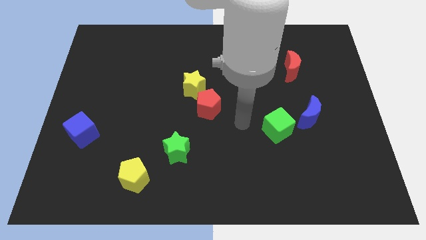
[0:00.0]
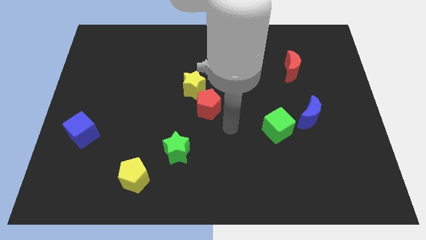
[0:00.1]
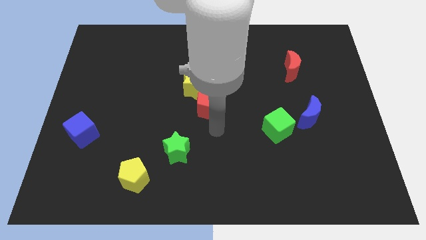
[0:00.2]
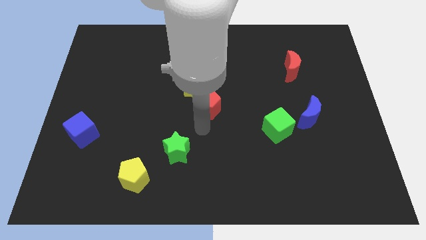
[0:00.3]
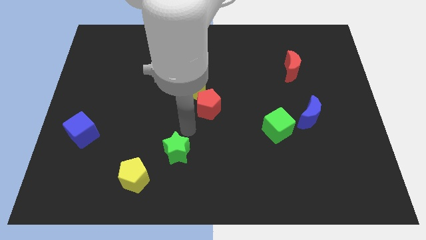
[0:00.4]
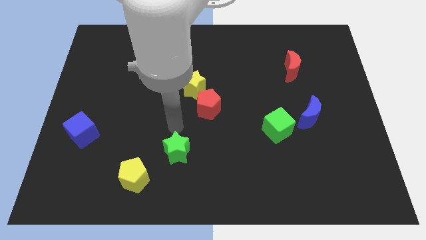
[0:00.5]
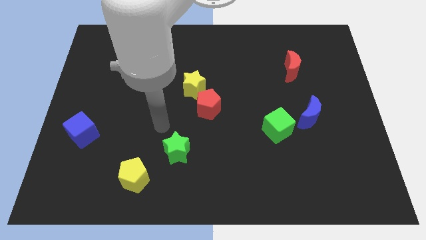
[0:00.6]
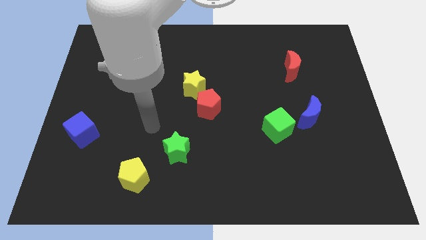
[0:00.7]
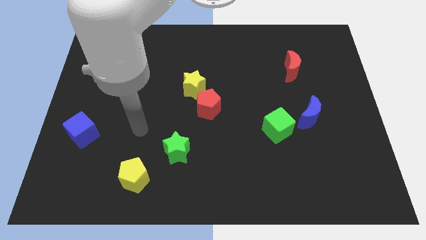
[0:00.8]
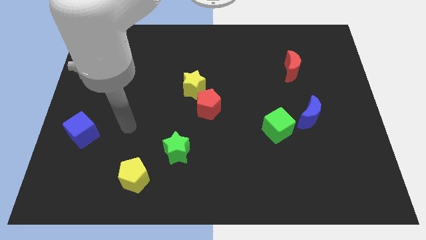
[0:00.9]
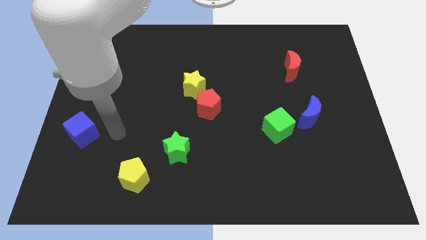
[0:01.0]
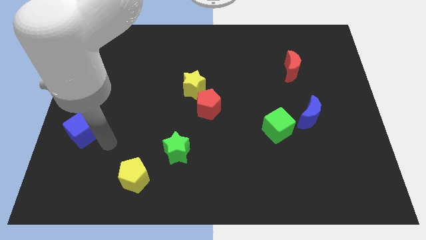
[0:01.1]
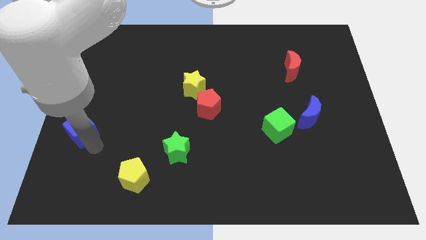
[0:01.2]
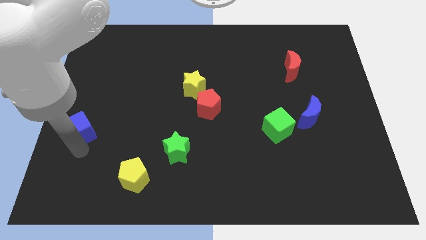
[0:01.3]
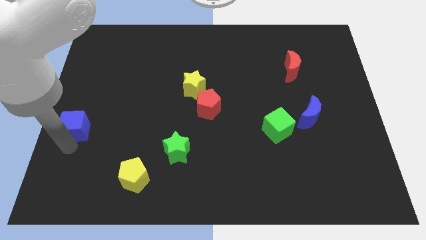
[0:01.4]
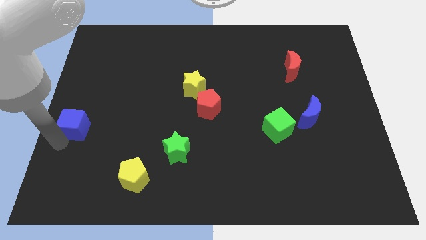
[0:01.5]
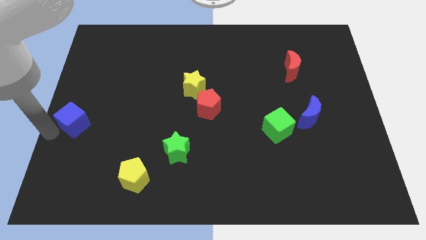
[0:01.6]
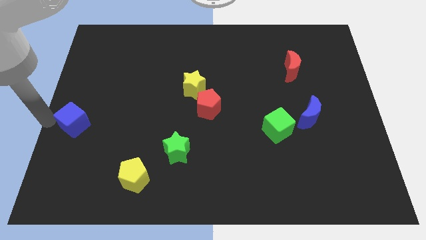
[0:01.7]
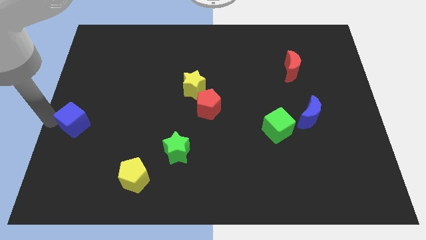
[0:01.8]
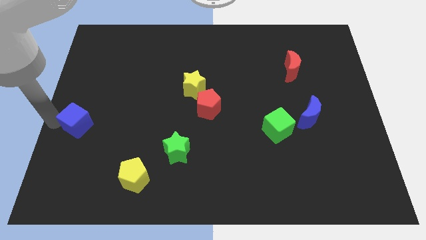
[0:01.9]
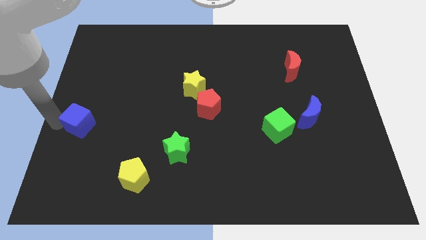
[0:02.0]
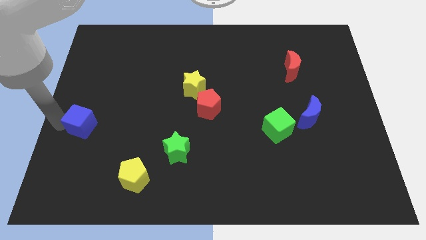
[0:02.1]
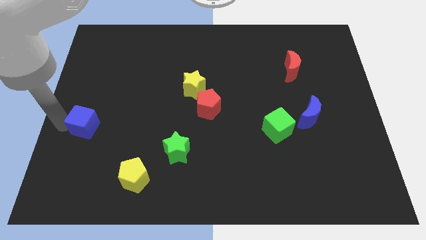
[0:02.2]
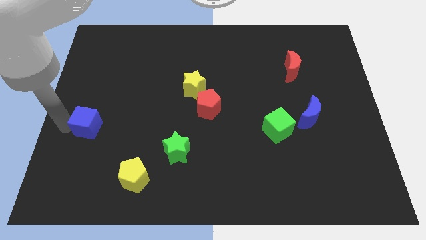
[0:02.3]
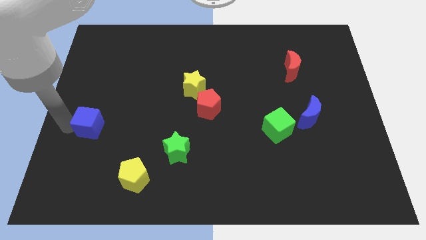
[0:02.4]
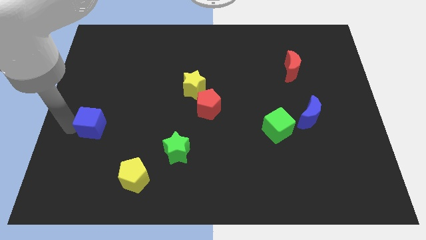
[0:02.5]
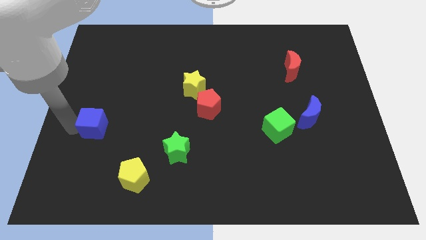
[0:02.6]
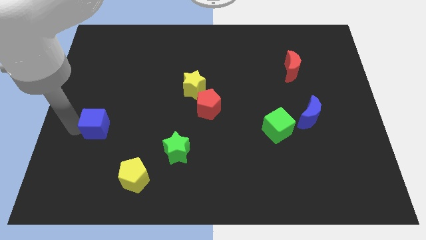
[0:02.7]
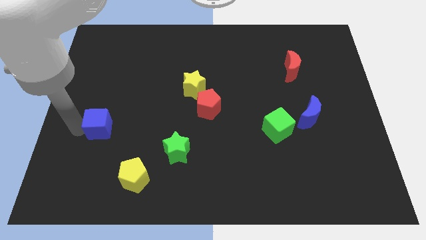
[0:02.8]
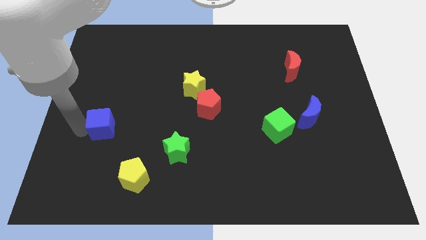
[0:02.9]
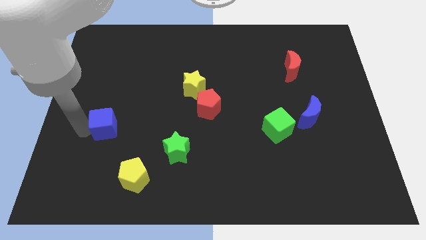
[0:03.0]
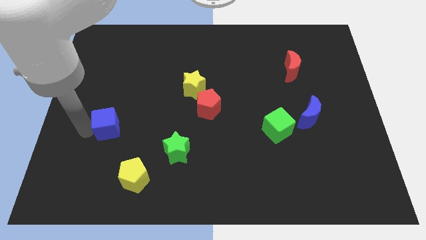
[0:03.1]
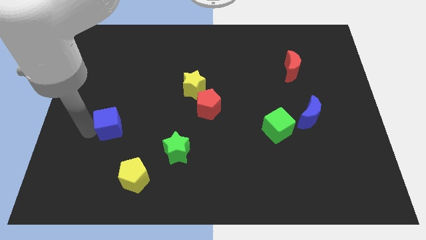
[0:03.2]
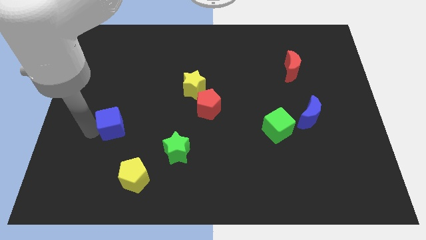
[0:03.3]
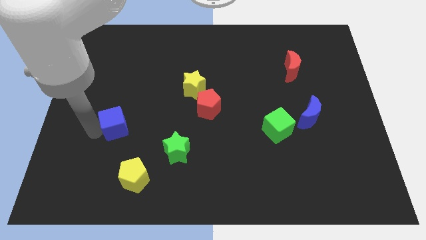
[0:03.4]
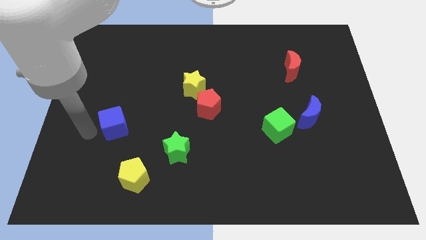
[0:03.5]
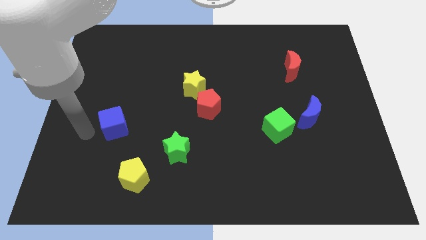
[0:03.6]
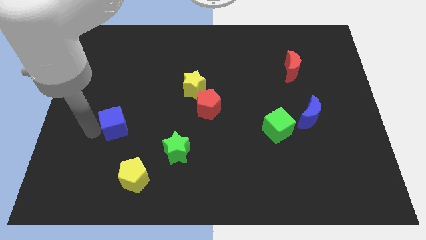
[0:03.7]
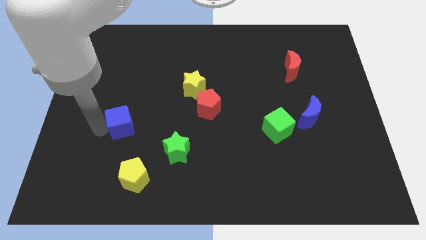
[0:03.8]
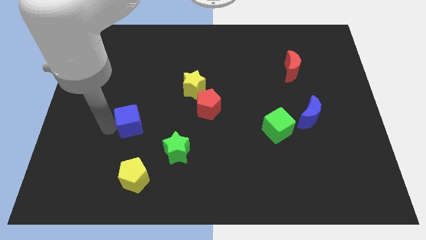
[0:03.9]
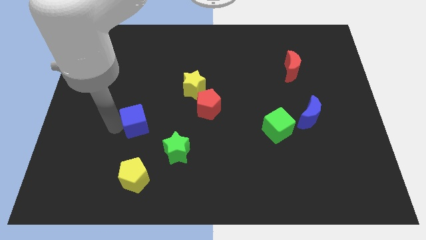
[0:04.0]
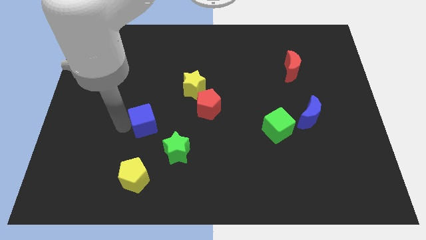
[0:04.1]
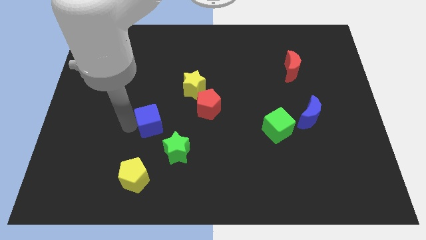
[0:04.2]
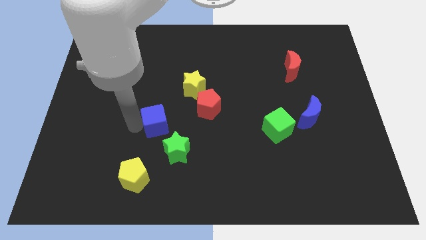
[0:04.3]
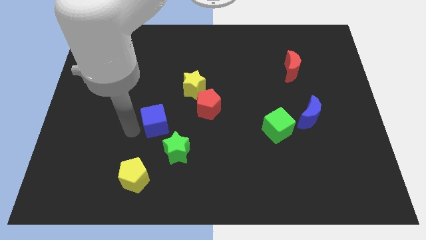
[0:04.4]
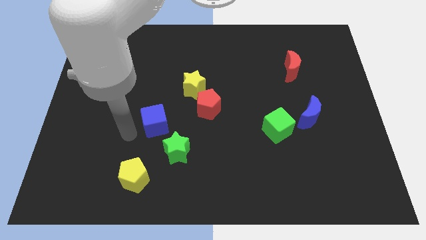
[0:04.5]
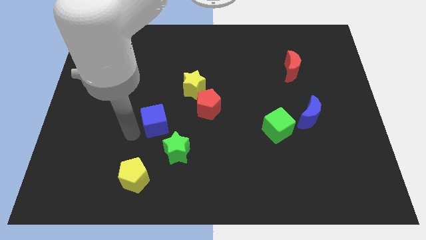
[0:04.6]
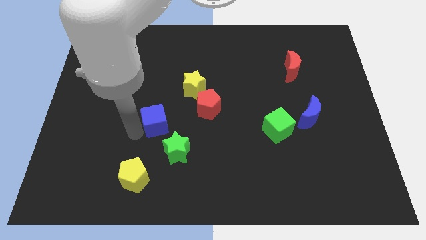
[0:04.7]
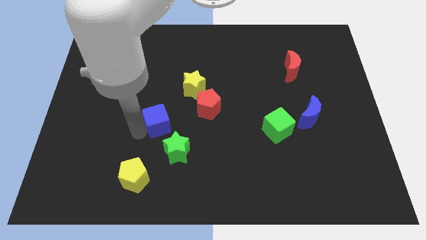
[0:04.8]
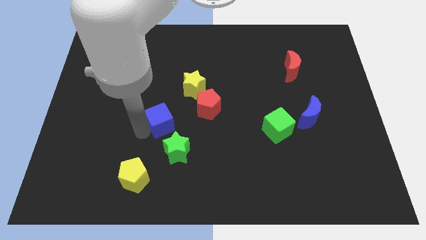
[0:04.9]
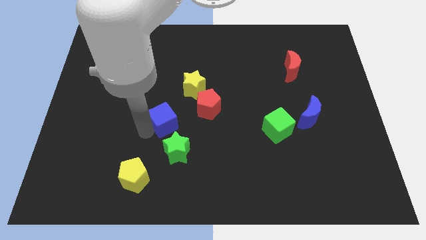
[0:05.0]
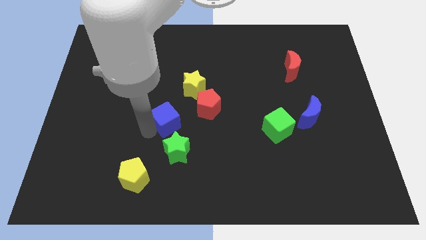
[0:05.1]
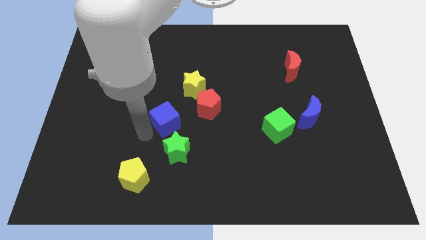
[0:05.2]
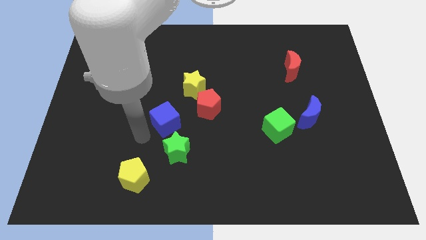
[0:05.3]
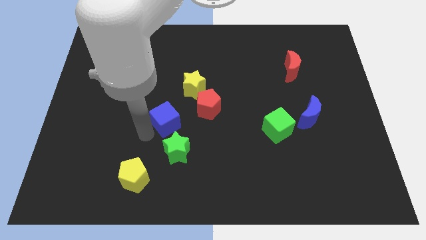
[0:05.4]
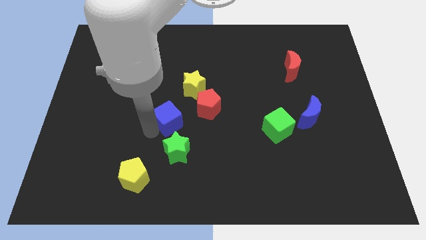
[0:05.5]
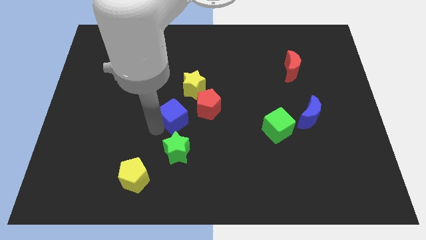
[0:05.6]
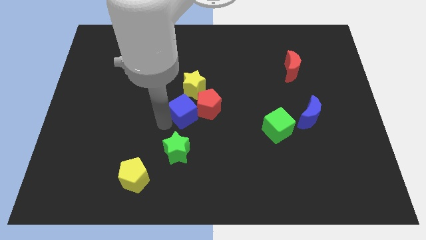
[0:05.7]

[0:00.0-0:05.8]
put the blue cube to the red pentagon

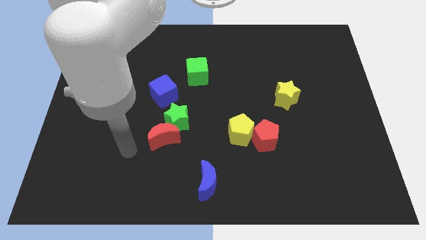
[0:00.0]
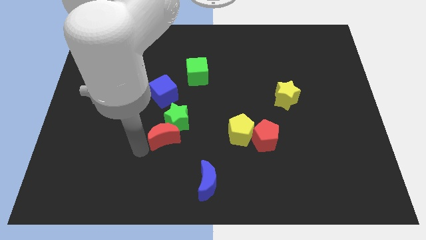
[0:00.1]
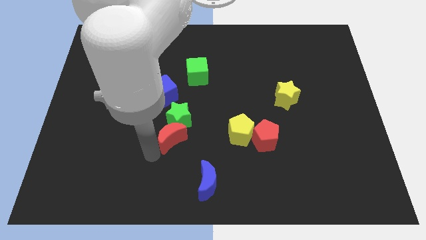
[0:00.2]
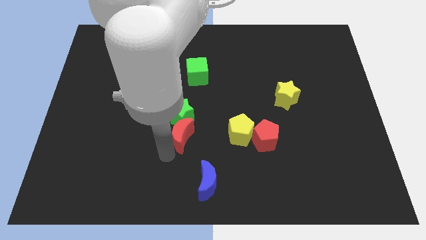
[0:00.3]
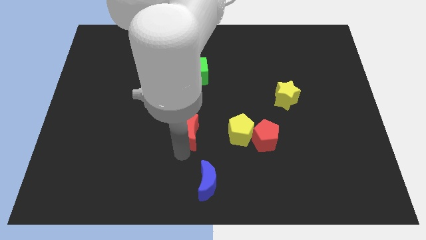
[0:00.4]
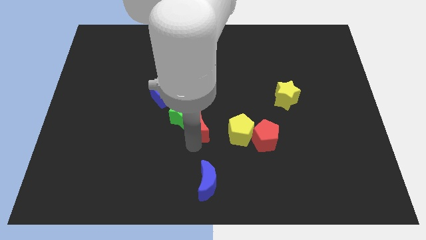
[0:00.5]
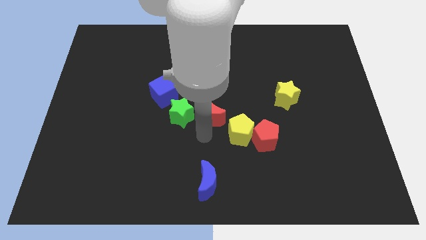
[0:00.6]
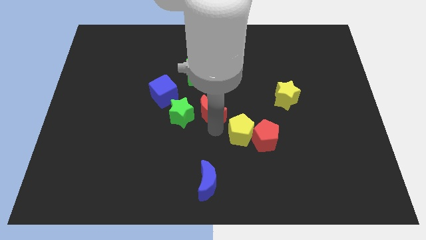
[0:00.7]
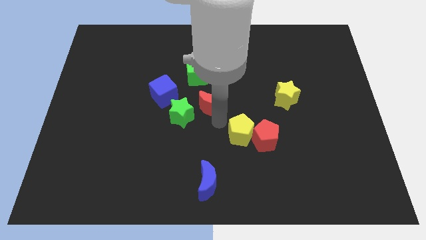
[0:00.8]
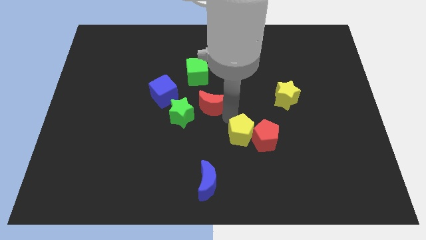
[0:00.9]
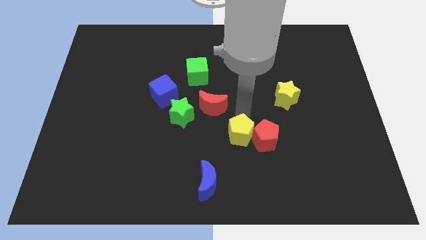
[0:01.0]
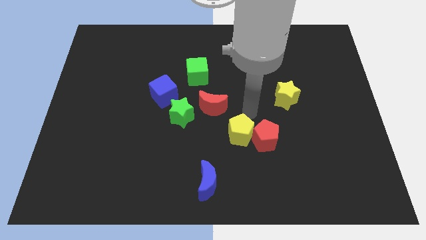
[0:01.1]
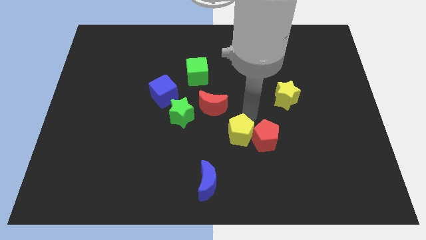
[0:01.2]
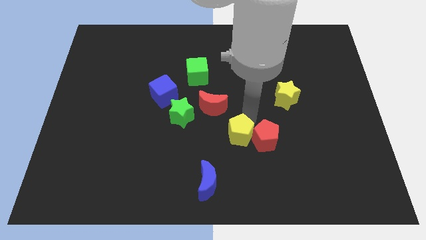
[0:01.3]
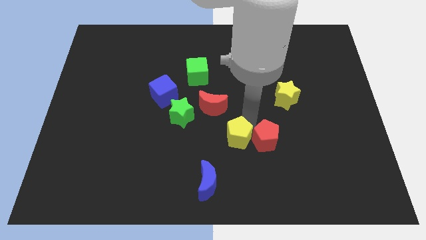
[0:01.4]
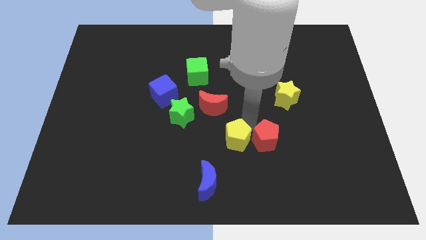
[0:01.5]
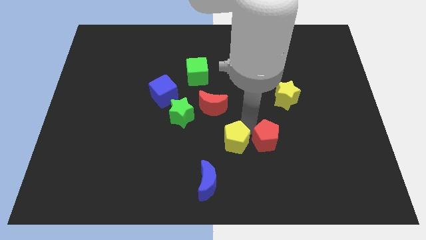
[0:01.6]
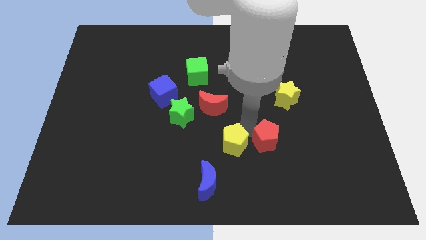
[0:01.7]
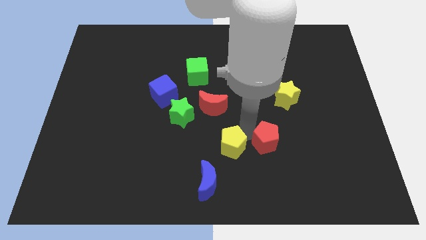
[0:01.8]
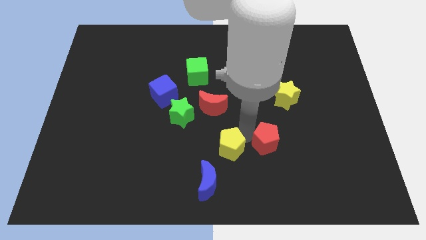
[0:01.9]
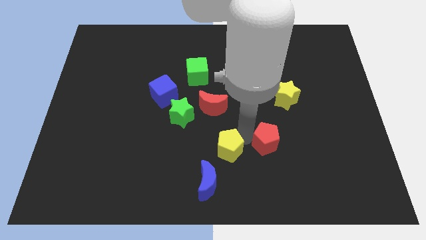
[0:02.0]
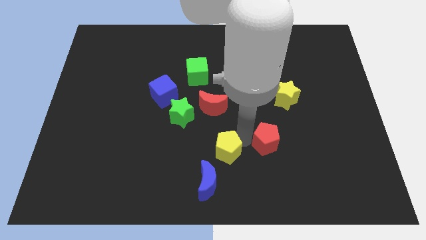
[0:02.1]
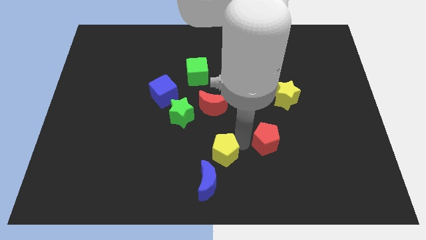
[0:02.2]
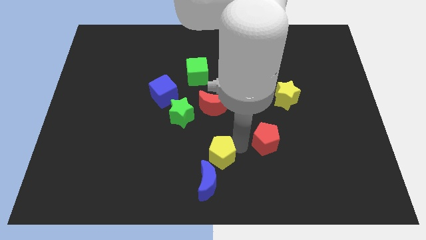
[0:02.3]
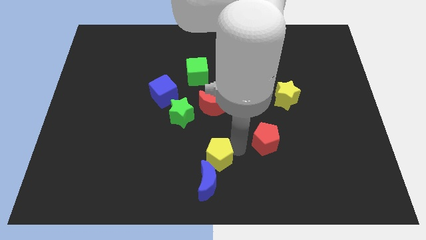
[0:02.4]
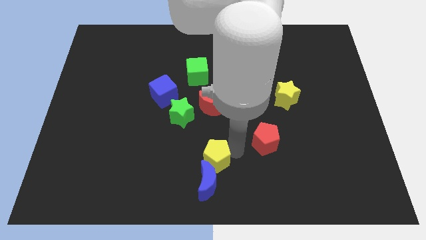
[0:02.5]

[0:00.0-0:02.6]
put the yellow pentagon close to the blue moon
